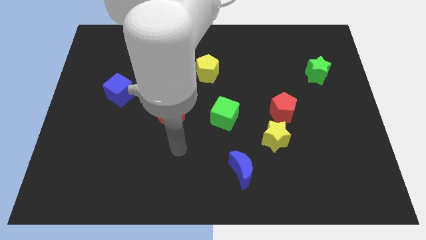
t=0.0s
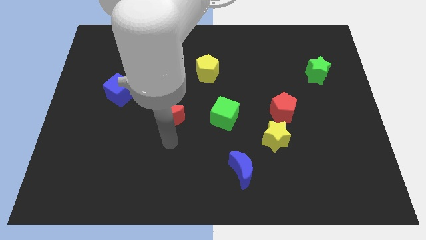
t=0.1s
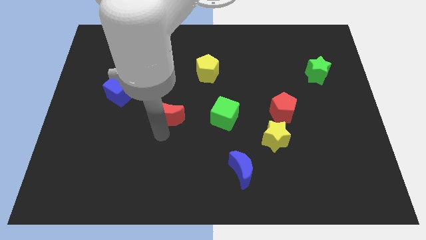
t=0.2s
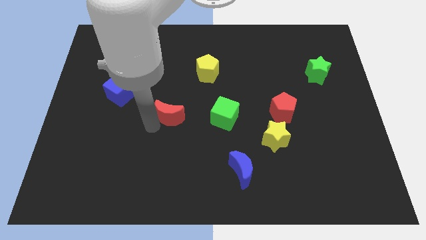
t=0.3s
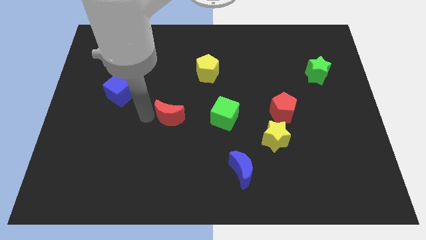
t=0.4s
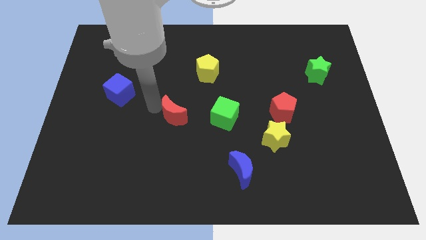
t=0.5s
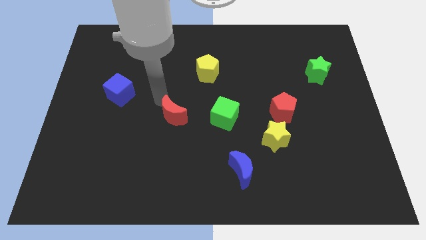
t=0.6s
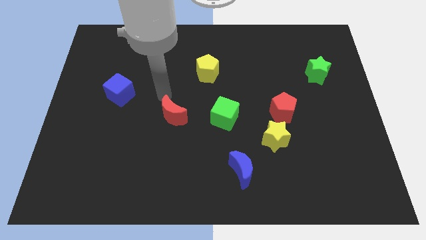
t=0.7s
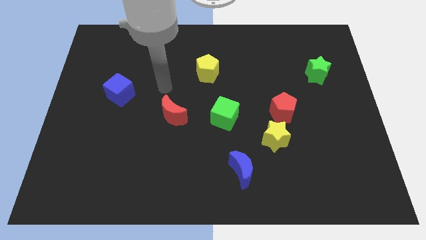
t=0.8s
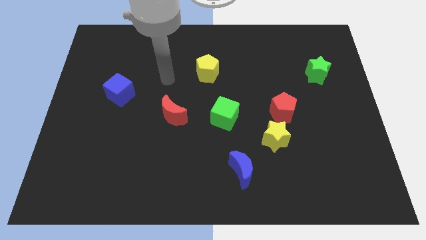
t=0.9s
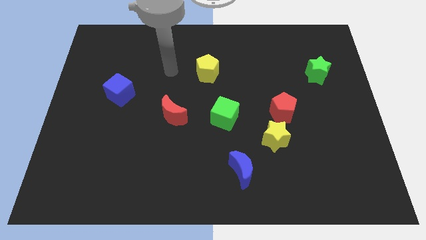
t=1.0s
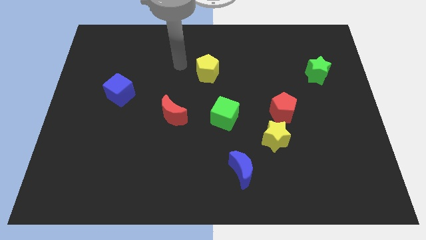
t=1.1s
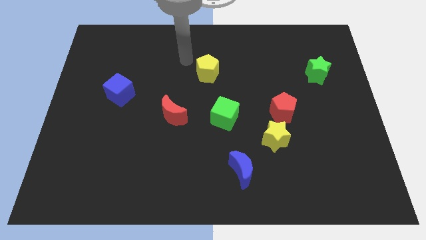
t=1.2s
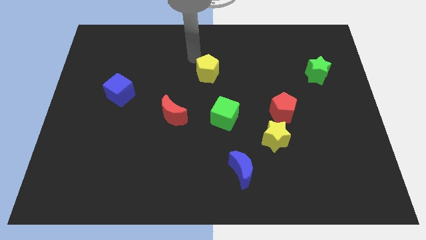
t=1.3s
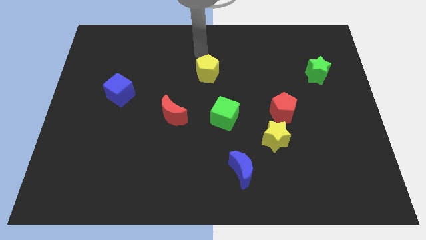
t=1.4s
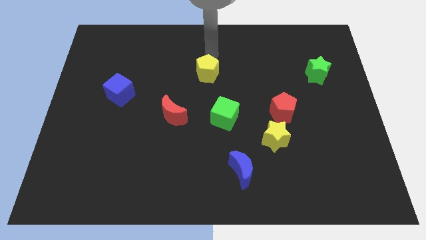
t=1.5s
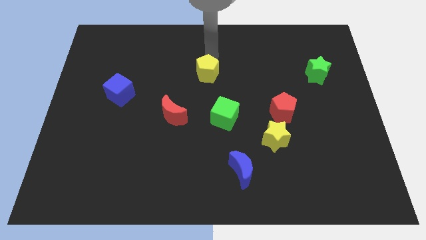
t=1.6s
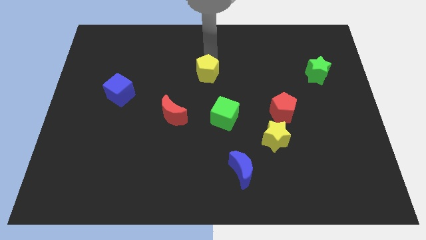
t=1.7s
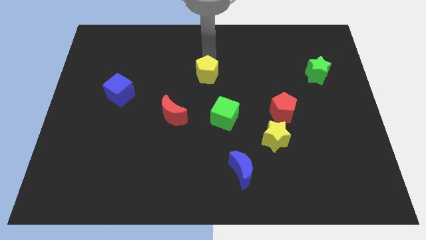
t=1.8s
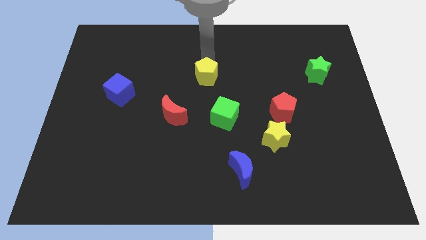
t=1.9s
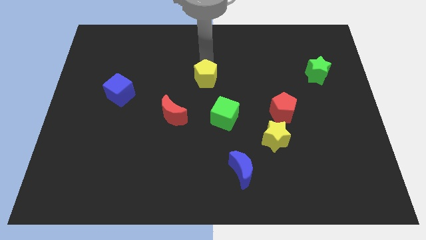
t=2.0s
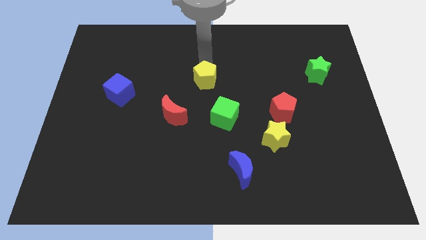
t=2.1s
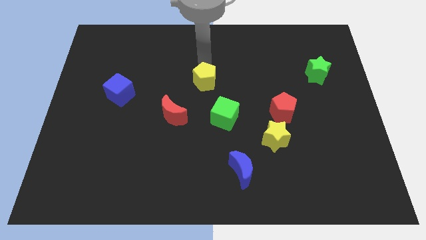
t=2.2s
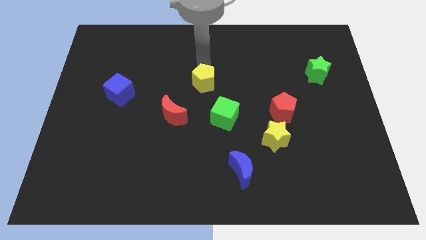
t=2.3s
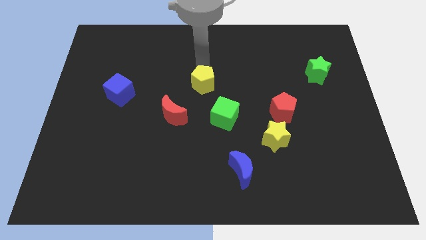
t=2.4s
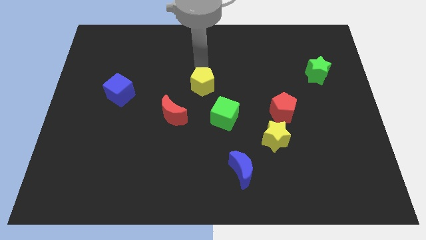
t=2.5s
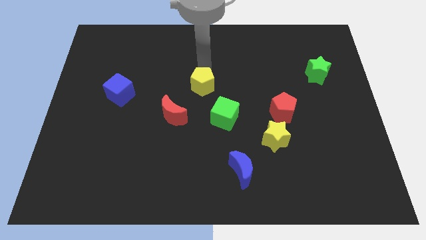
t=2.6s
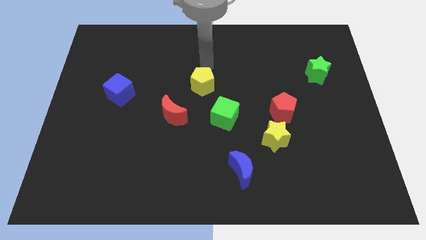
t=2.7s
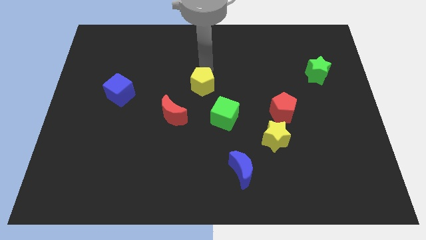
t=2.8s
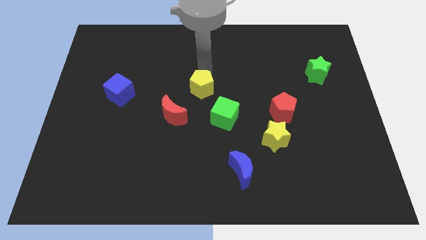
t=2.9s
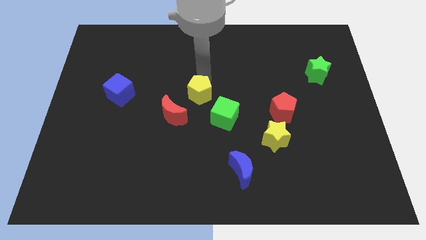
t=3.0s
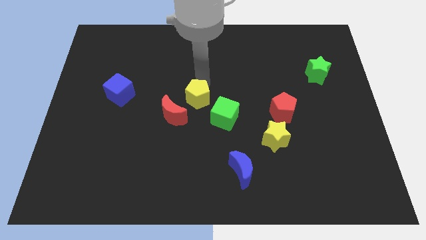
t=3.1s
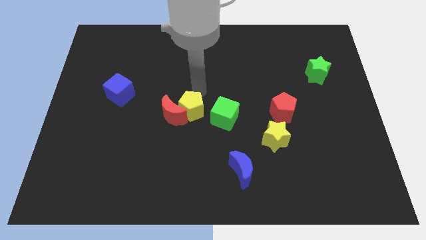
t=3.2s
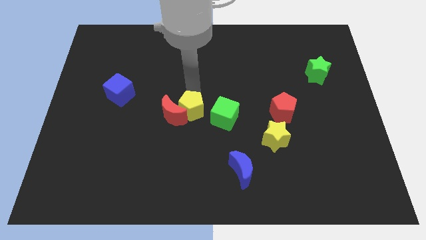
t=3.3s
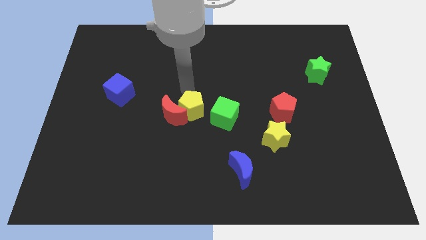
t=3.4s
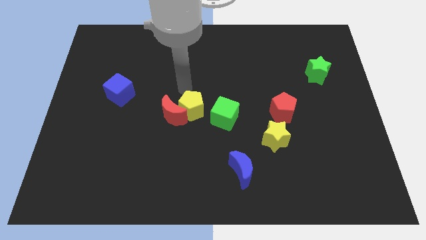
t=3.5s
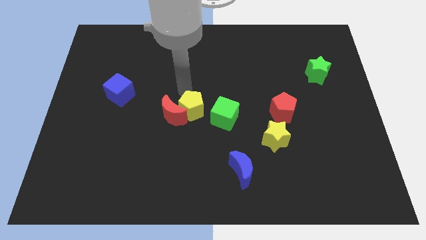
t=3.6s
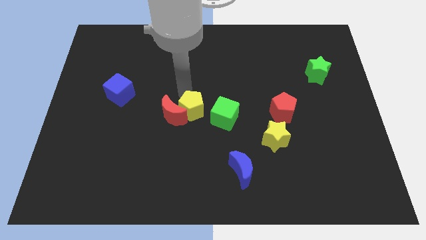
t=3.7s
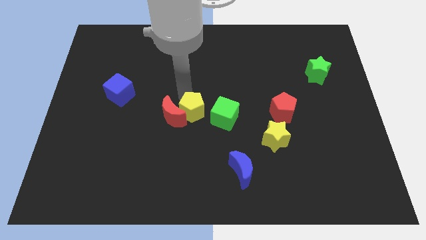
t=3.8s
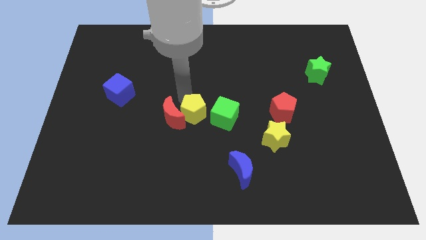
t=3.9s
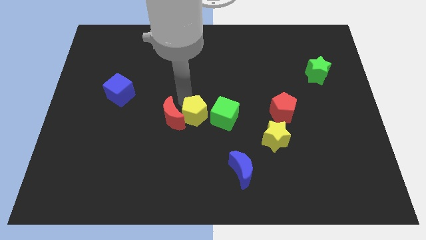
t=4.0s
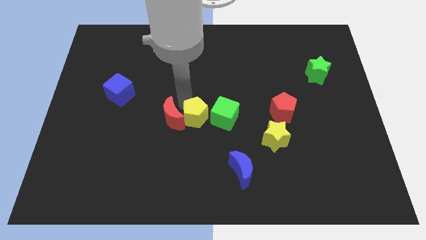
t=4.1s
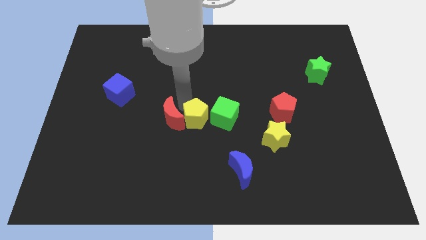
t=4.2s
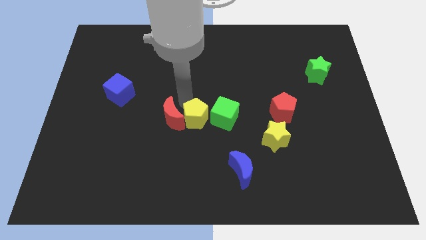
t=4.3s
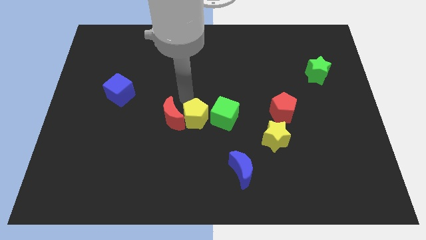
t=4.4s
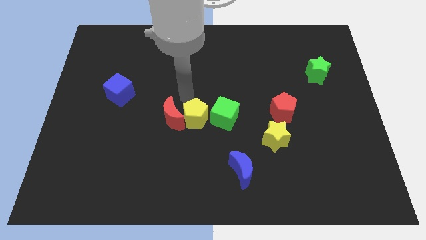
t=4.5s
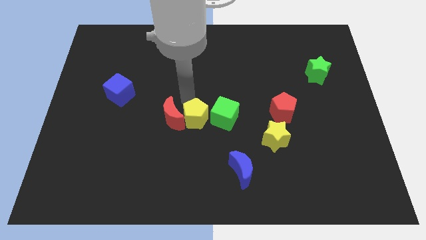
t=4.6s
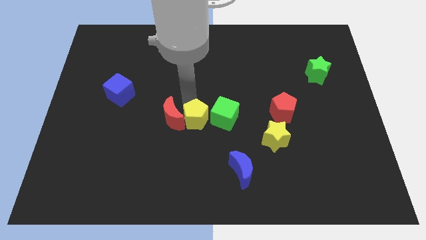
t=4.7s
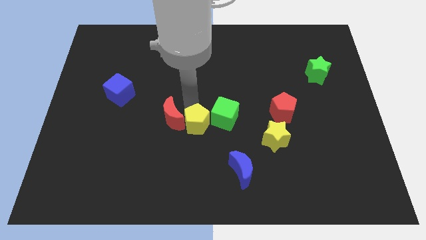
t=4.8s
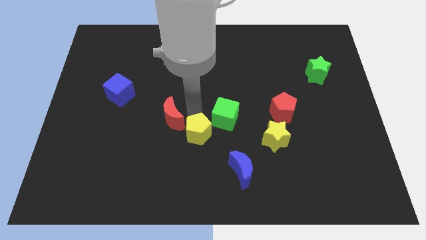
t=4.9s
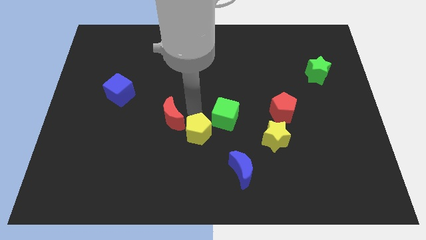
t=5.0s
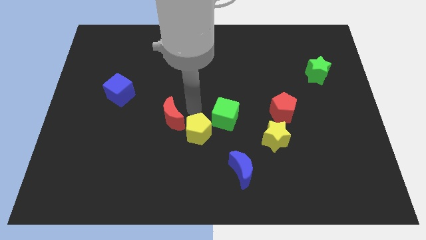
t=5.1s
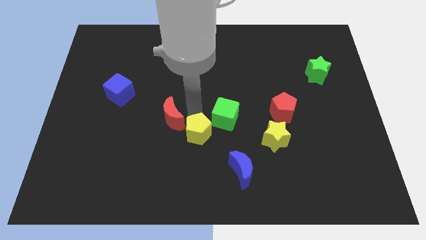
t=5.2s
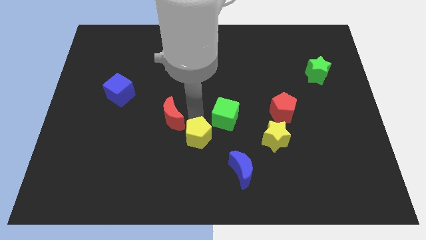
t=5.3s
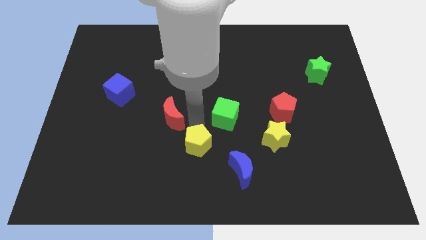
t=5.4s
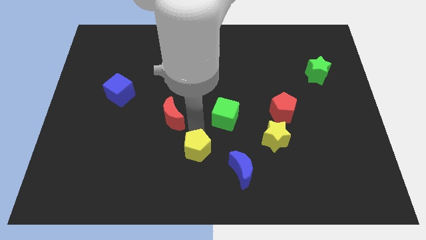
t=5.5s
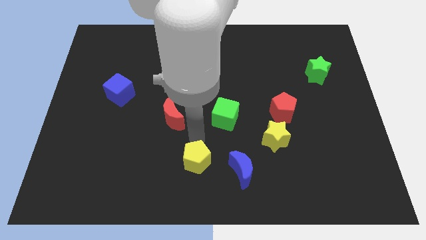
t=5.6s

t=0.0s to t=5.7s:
slide the yellow pentagon to the bottom

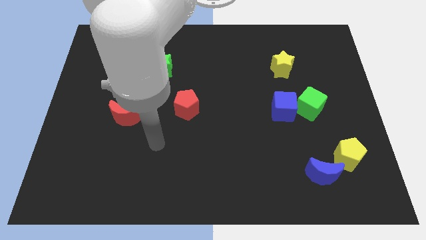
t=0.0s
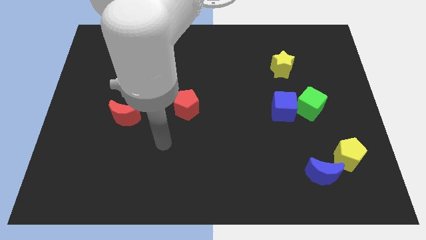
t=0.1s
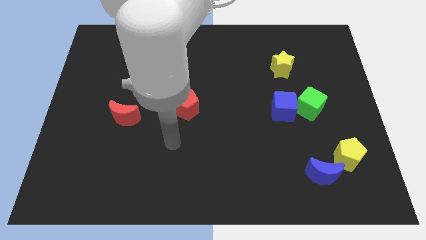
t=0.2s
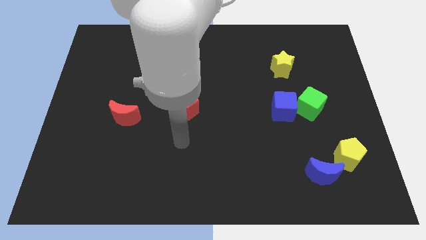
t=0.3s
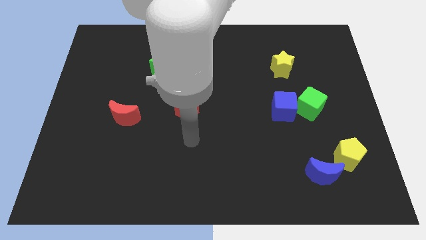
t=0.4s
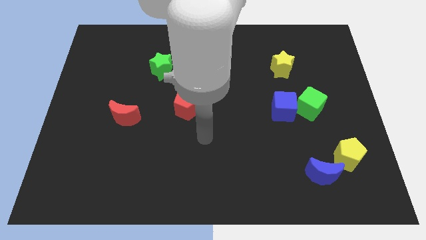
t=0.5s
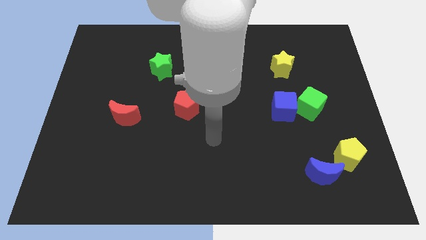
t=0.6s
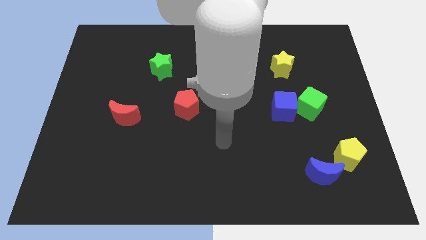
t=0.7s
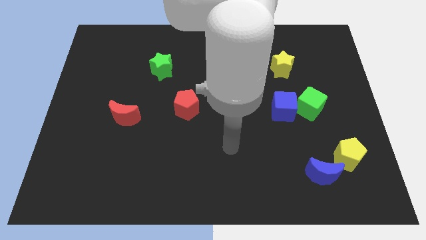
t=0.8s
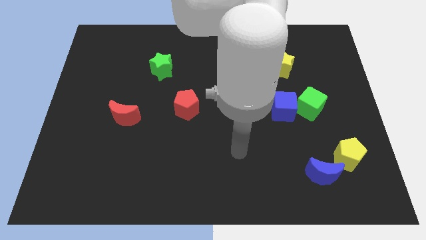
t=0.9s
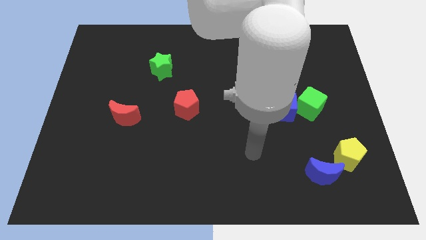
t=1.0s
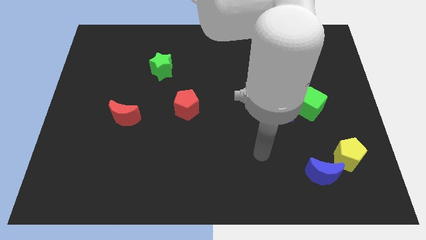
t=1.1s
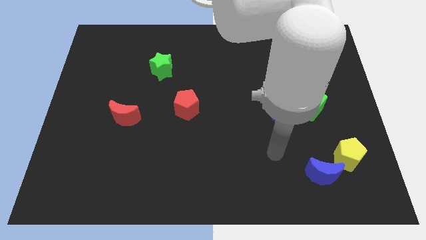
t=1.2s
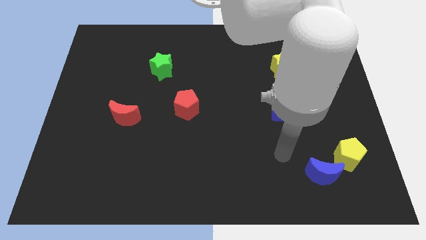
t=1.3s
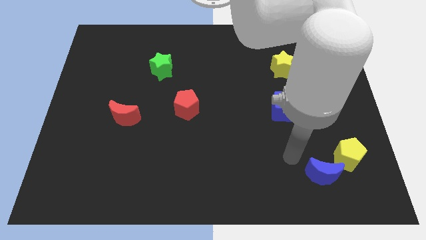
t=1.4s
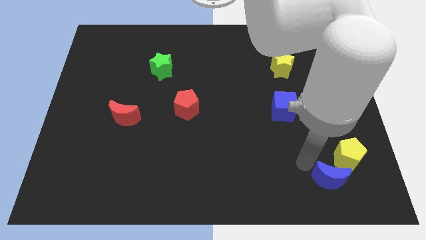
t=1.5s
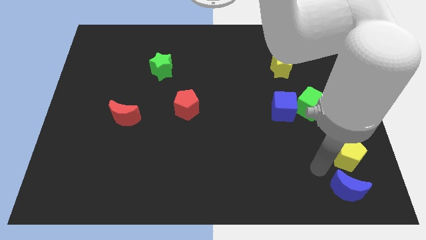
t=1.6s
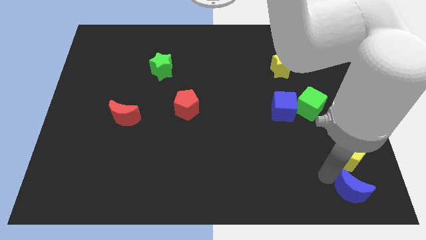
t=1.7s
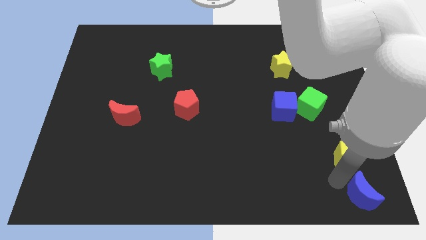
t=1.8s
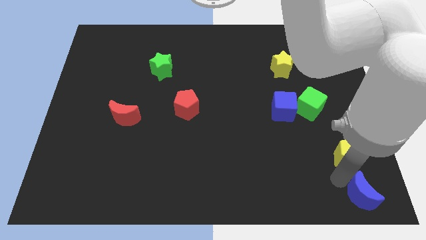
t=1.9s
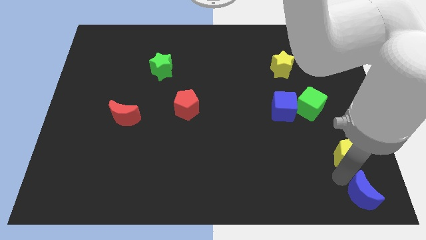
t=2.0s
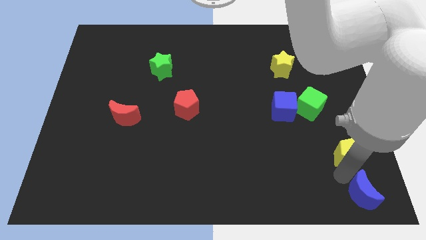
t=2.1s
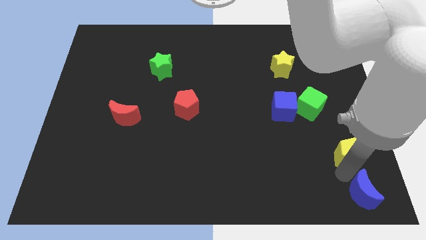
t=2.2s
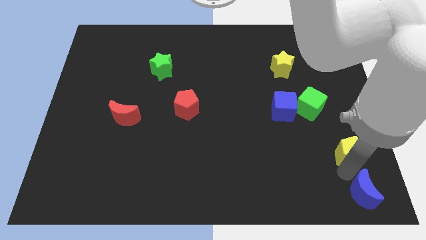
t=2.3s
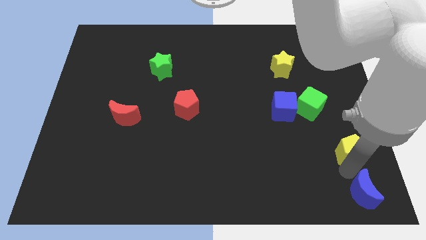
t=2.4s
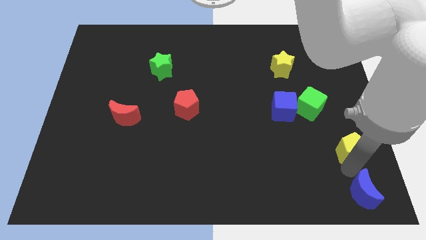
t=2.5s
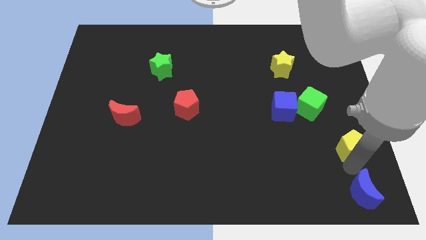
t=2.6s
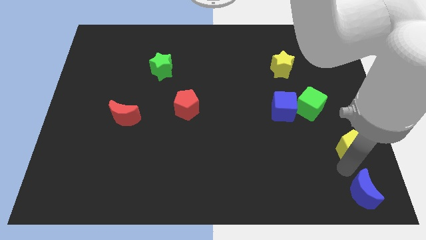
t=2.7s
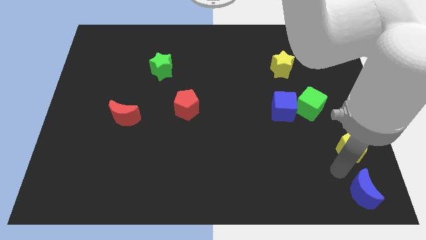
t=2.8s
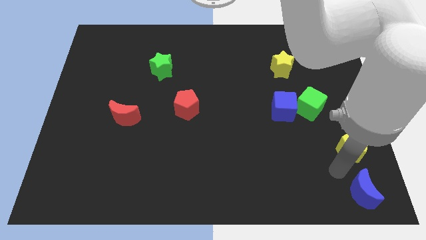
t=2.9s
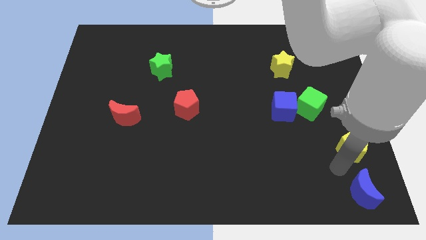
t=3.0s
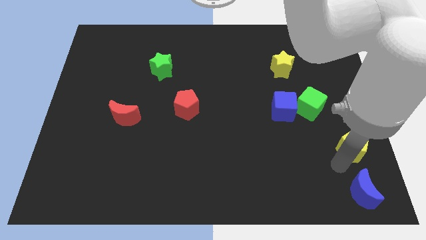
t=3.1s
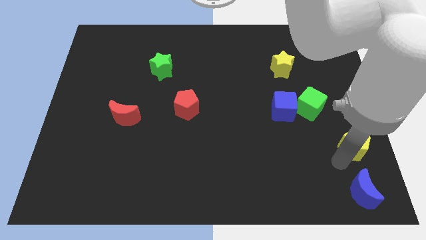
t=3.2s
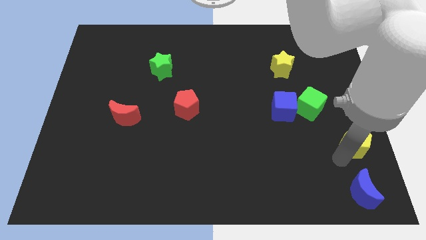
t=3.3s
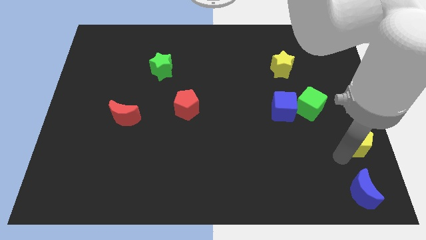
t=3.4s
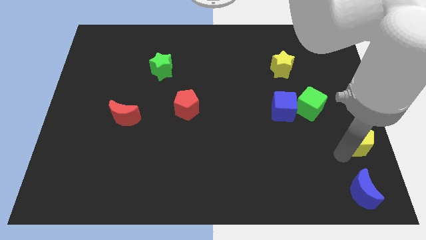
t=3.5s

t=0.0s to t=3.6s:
put the yellow pentagon to the center right
